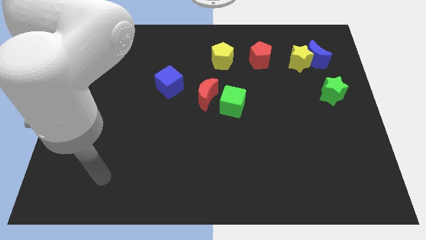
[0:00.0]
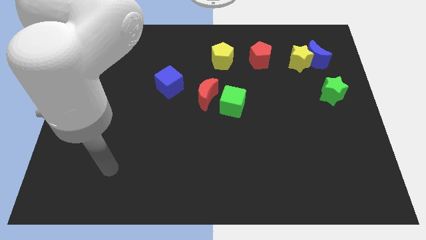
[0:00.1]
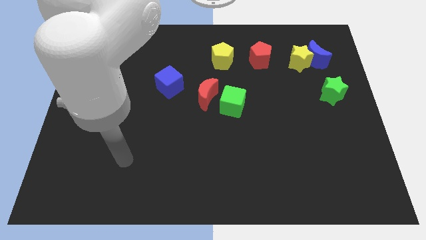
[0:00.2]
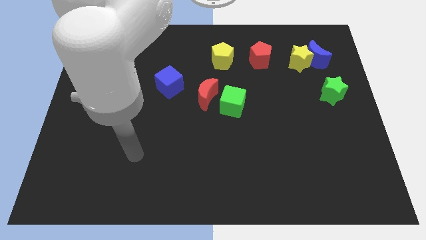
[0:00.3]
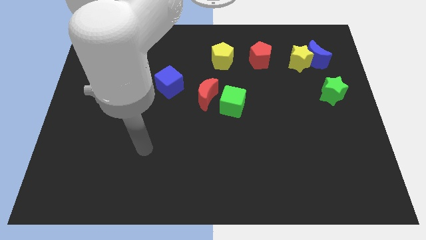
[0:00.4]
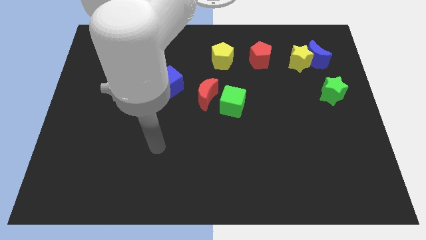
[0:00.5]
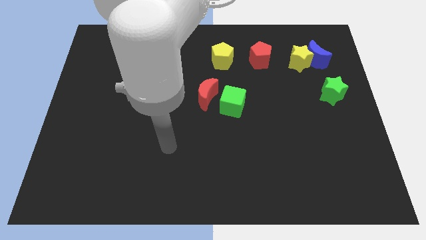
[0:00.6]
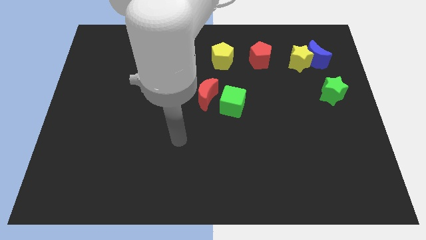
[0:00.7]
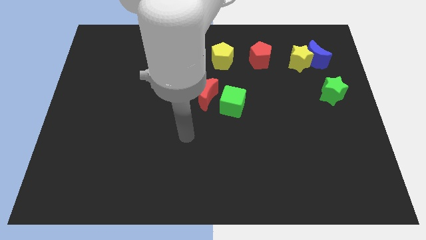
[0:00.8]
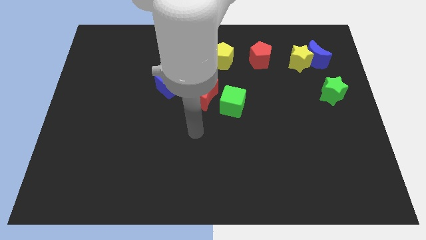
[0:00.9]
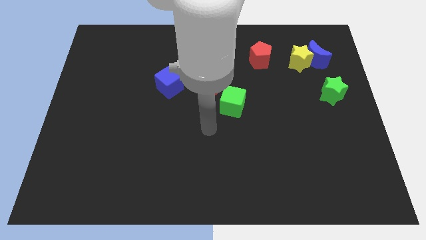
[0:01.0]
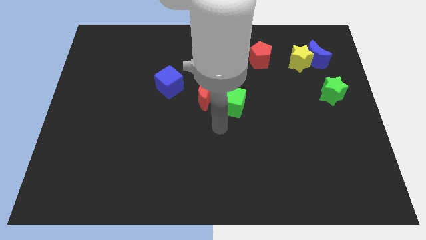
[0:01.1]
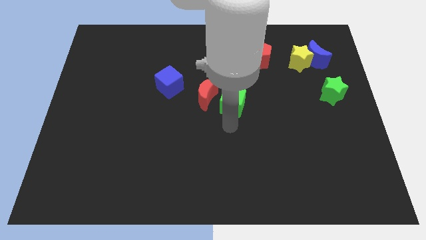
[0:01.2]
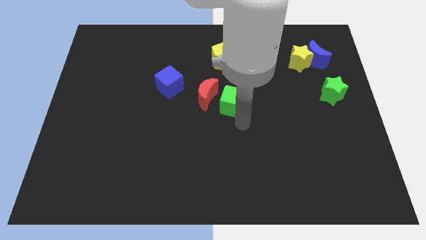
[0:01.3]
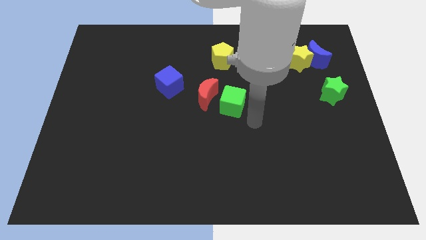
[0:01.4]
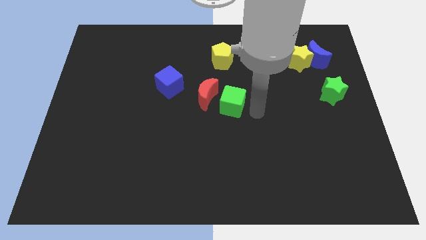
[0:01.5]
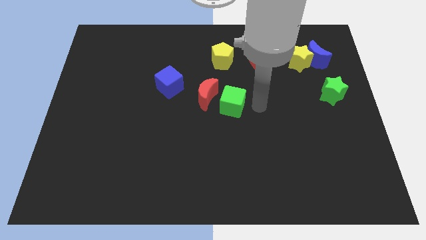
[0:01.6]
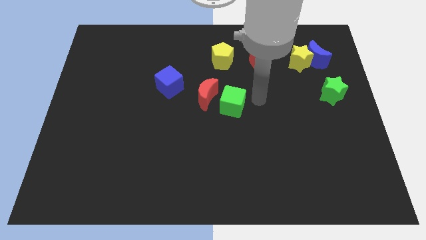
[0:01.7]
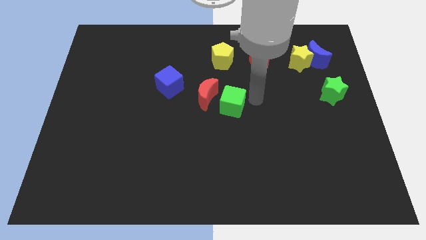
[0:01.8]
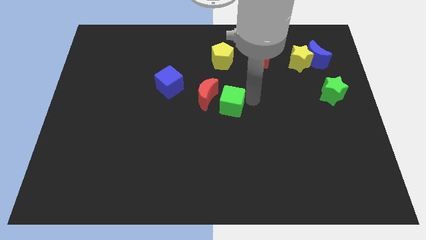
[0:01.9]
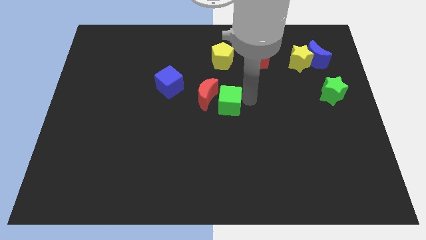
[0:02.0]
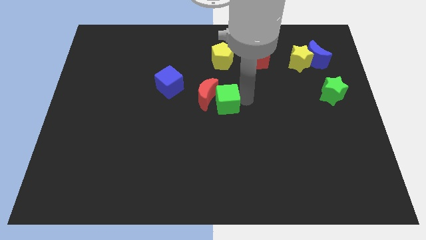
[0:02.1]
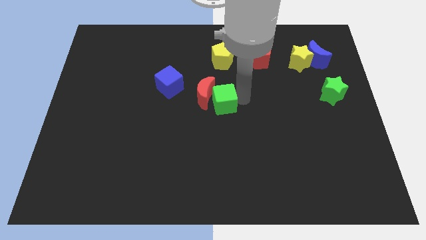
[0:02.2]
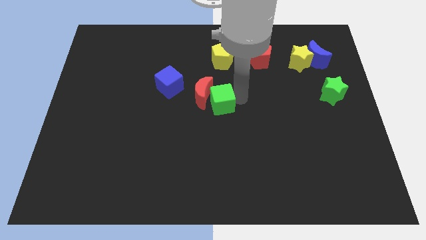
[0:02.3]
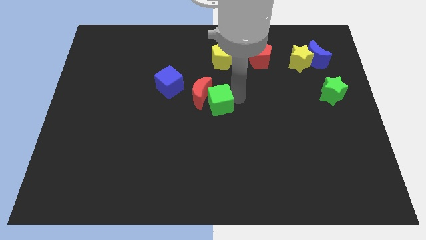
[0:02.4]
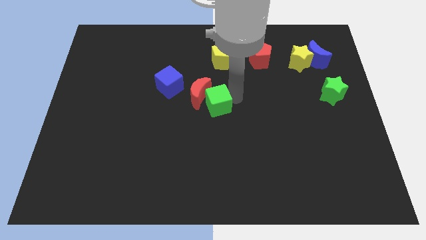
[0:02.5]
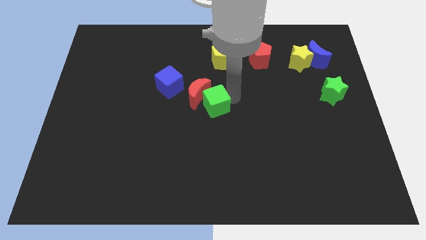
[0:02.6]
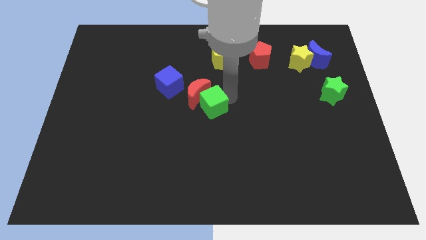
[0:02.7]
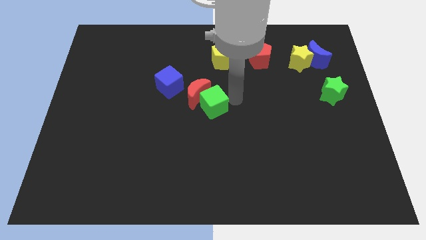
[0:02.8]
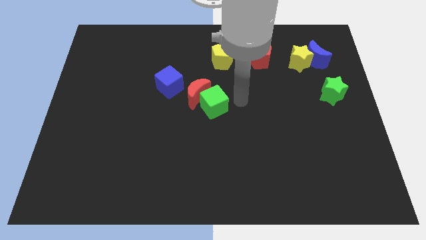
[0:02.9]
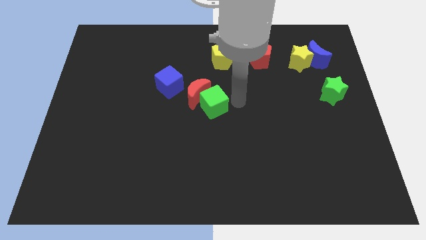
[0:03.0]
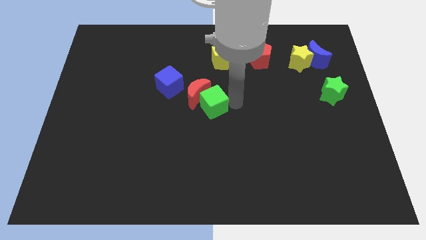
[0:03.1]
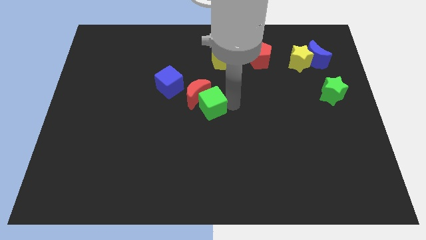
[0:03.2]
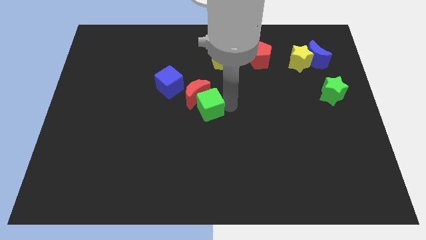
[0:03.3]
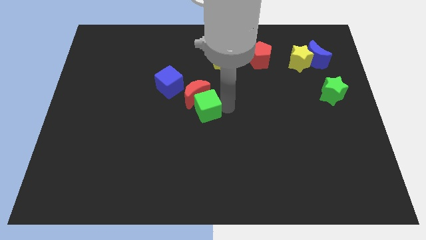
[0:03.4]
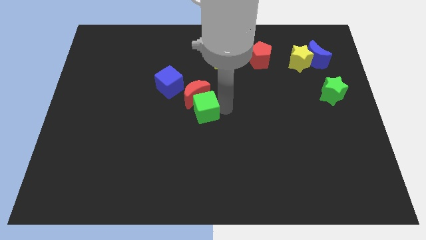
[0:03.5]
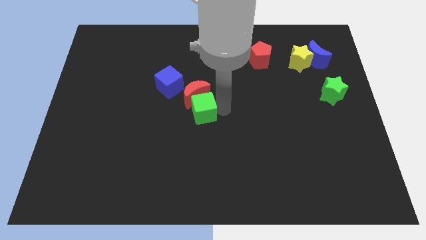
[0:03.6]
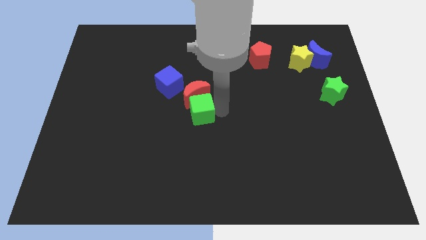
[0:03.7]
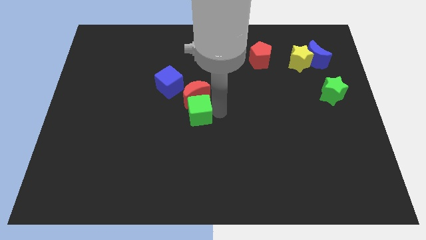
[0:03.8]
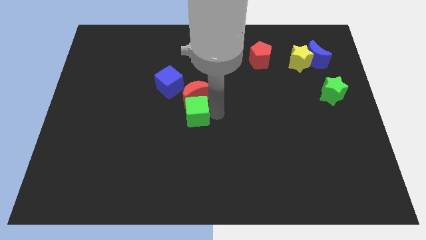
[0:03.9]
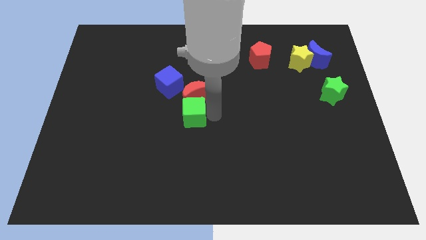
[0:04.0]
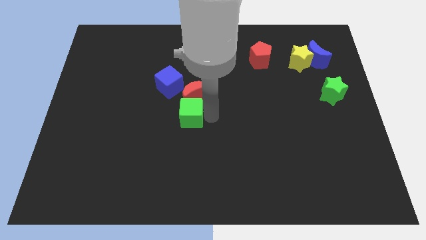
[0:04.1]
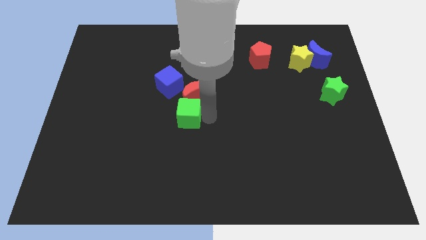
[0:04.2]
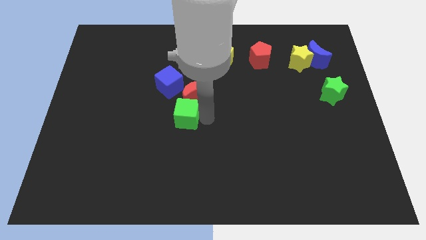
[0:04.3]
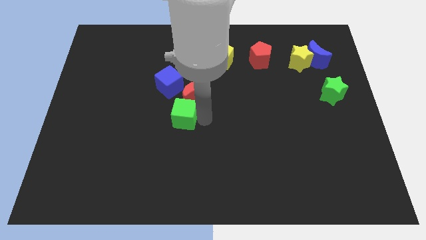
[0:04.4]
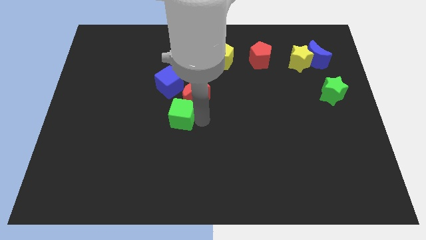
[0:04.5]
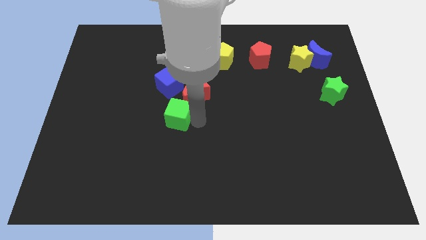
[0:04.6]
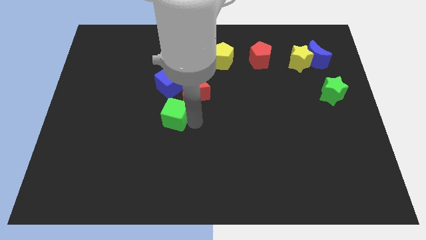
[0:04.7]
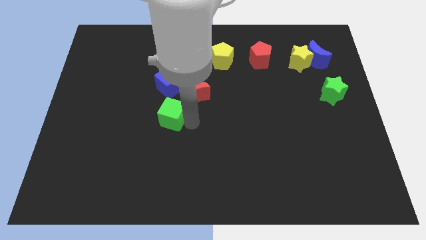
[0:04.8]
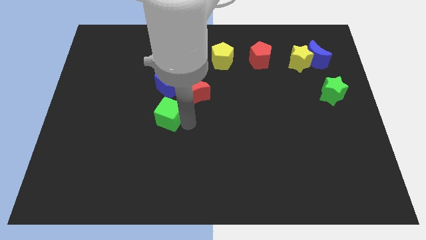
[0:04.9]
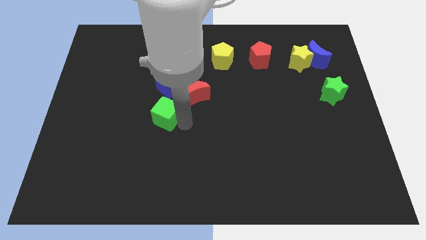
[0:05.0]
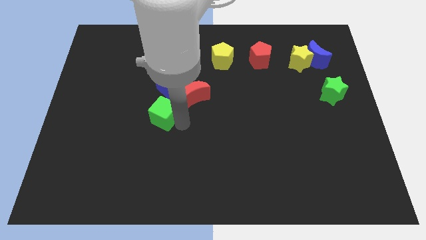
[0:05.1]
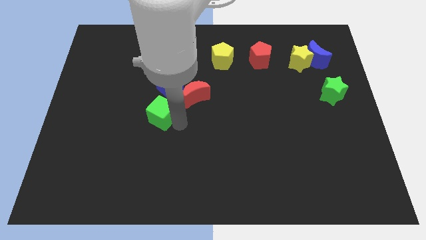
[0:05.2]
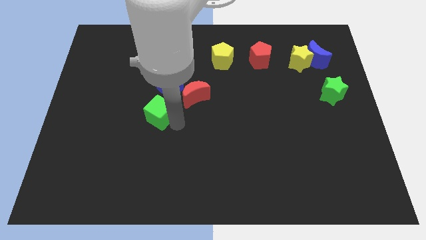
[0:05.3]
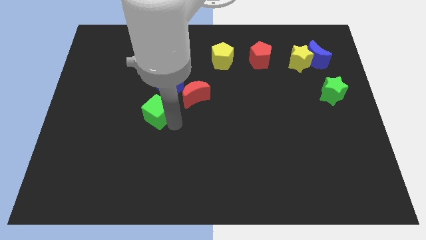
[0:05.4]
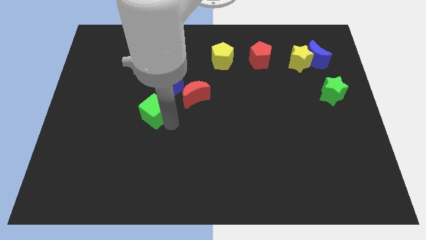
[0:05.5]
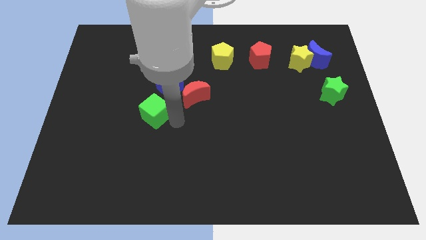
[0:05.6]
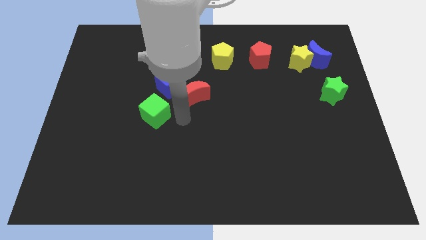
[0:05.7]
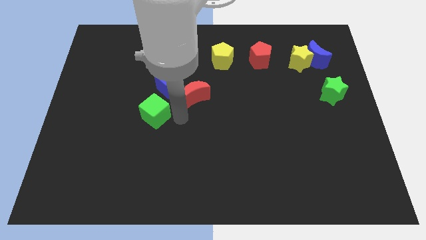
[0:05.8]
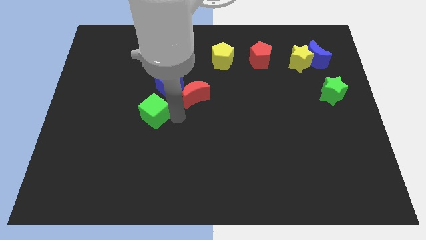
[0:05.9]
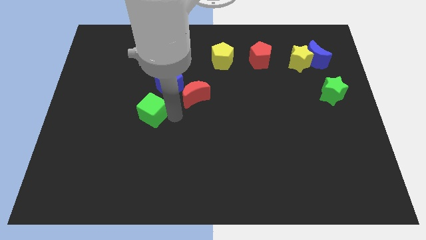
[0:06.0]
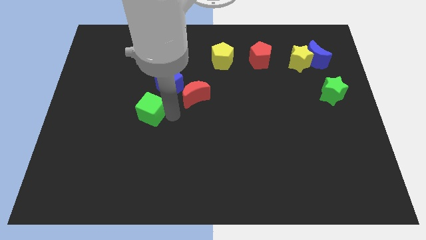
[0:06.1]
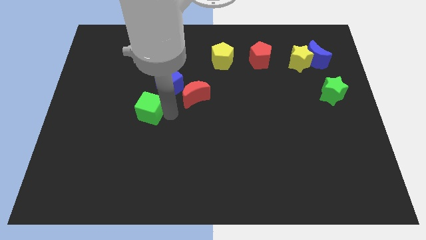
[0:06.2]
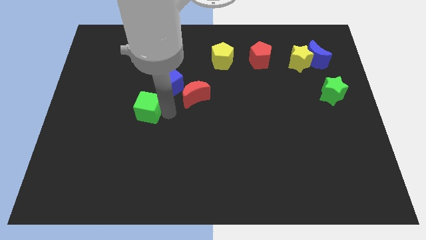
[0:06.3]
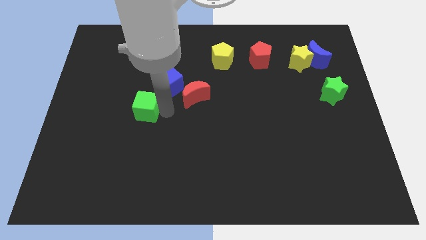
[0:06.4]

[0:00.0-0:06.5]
push the green cube left

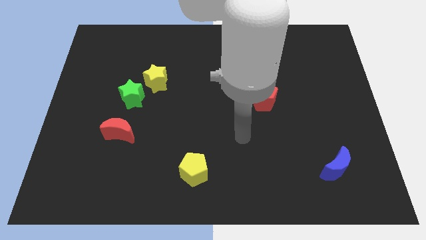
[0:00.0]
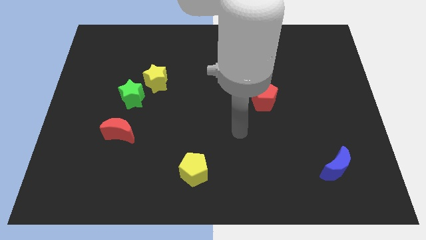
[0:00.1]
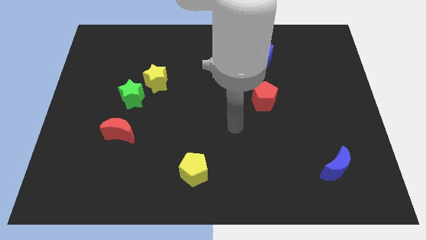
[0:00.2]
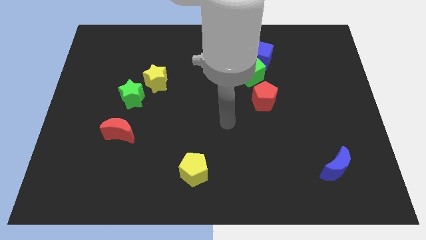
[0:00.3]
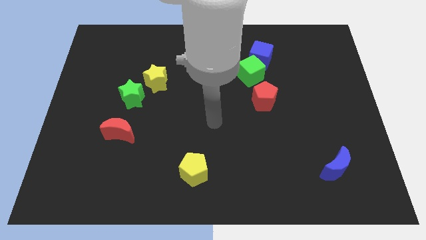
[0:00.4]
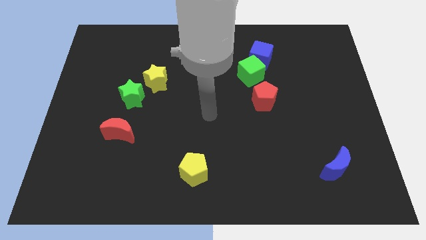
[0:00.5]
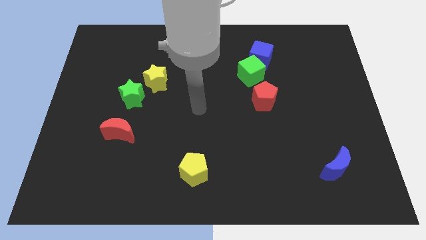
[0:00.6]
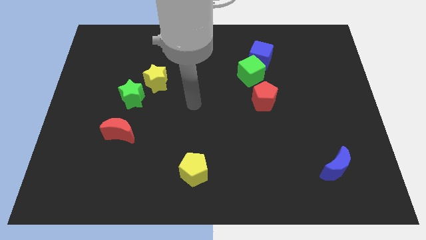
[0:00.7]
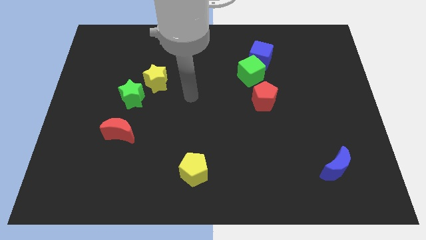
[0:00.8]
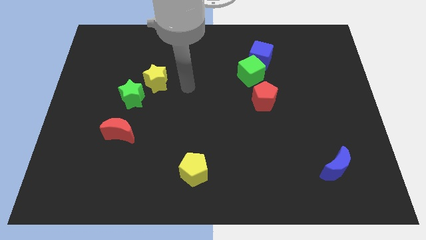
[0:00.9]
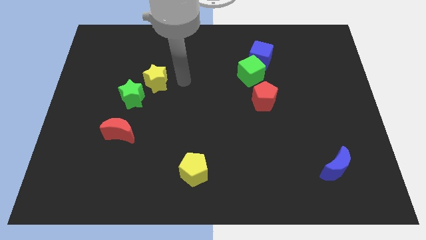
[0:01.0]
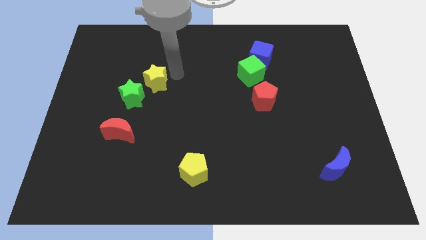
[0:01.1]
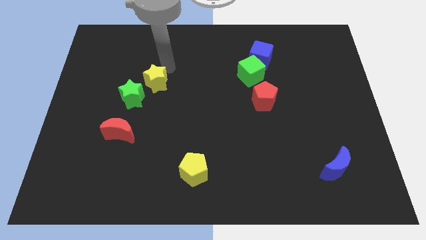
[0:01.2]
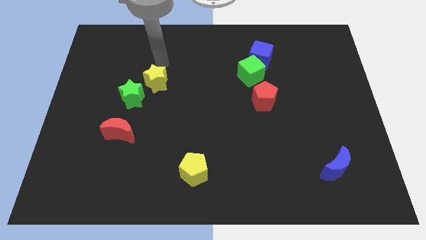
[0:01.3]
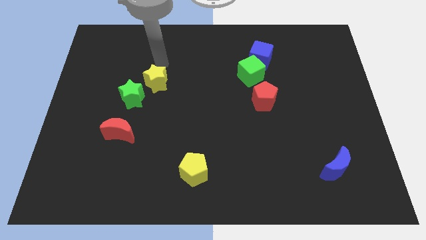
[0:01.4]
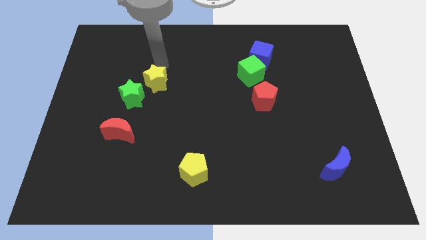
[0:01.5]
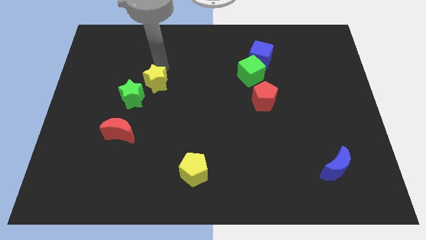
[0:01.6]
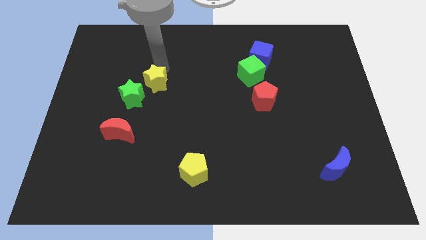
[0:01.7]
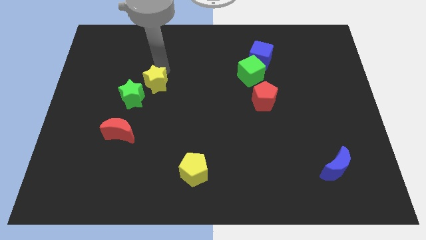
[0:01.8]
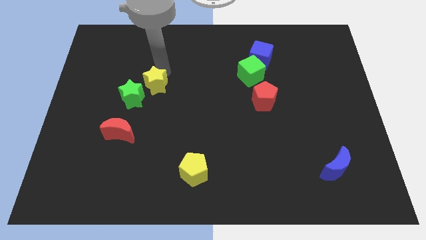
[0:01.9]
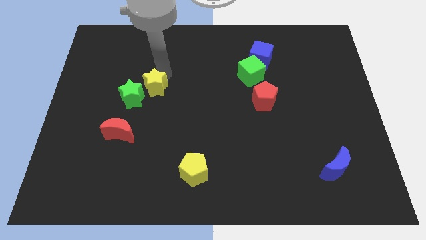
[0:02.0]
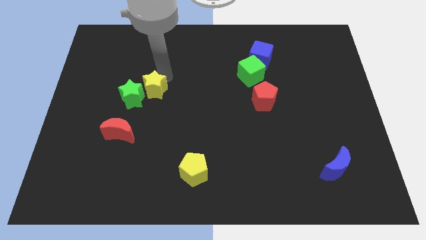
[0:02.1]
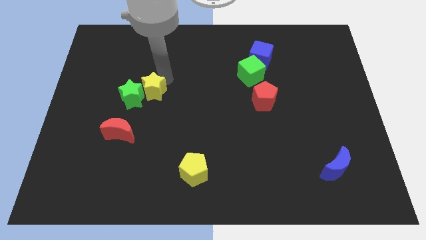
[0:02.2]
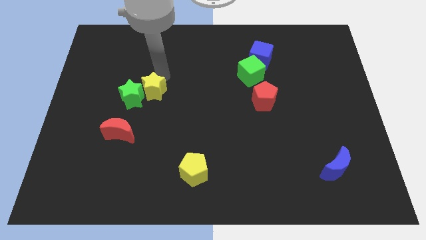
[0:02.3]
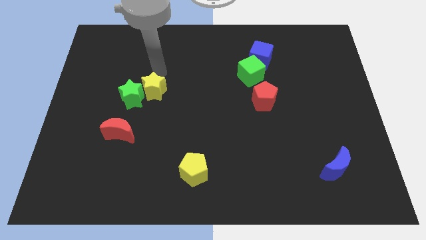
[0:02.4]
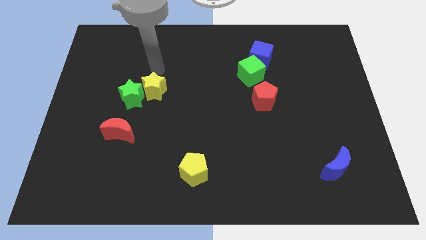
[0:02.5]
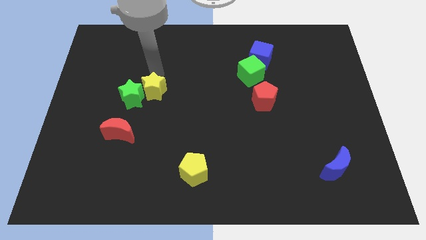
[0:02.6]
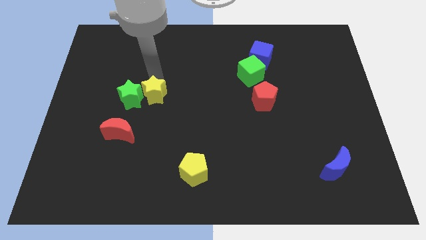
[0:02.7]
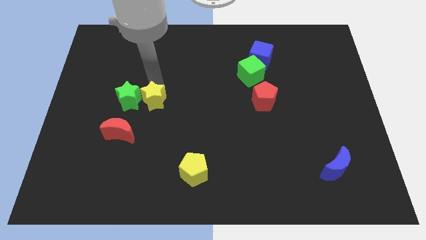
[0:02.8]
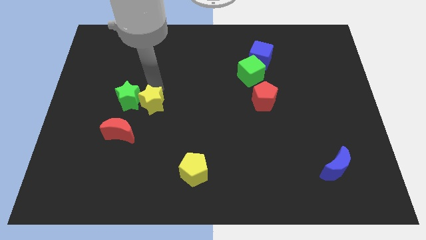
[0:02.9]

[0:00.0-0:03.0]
slightly move the yellow star downwards
